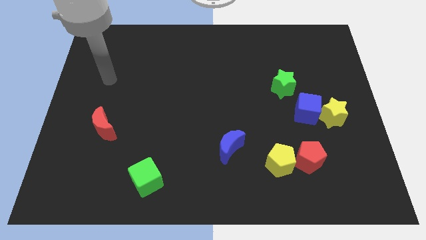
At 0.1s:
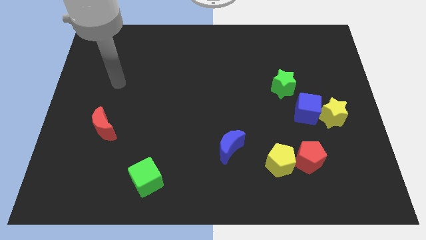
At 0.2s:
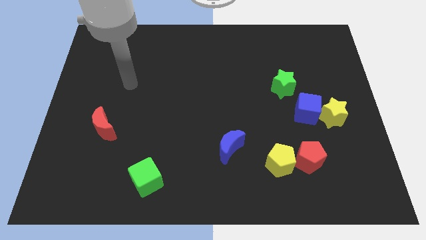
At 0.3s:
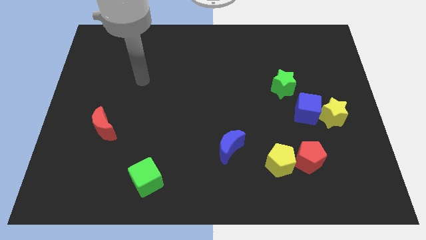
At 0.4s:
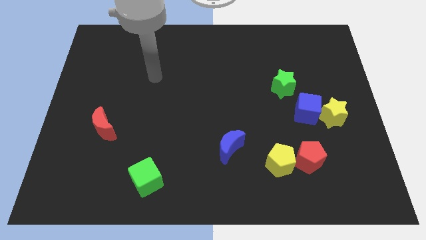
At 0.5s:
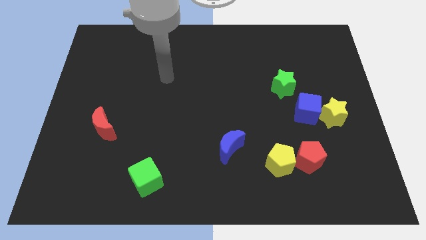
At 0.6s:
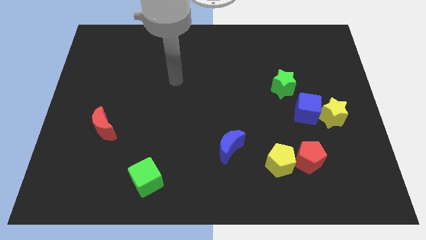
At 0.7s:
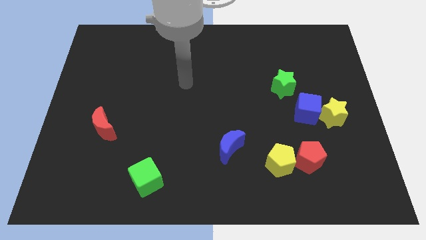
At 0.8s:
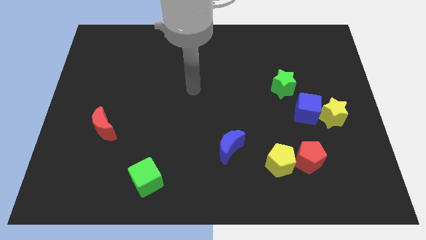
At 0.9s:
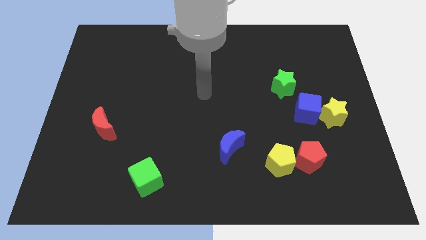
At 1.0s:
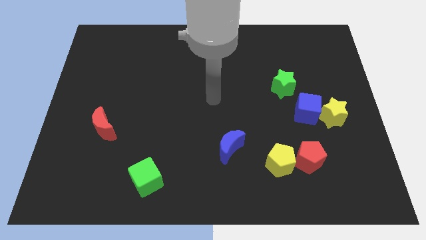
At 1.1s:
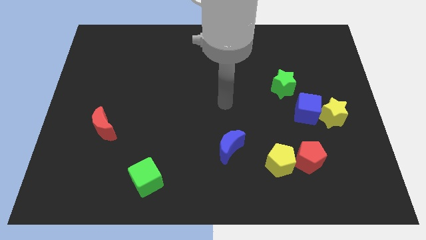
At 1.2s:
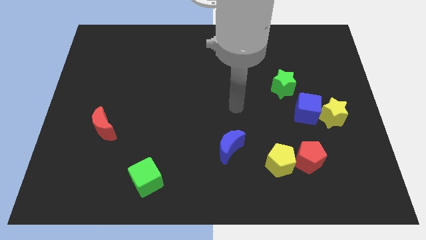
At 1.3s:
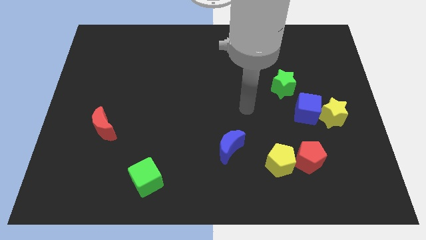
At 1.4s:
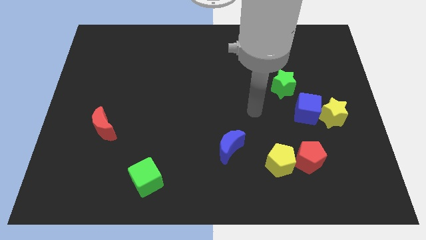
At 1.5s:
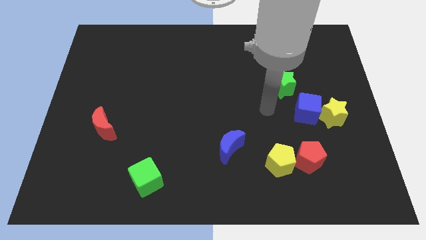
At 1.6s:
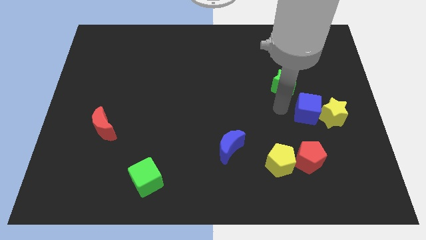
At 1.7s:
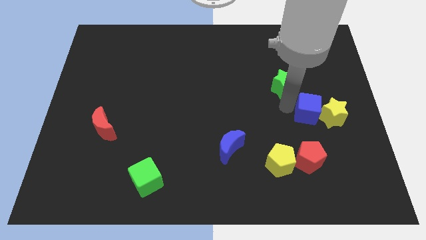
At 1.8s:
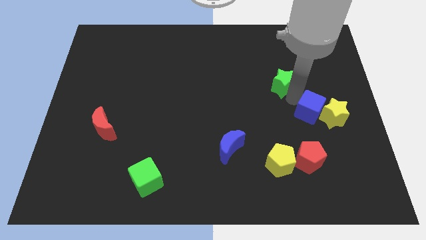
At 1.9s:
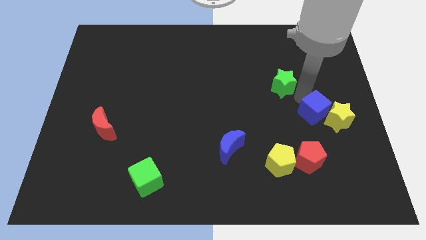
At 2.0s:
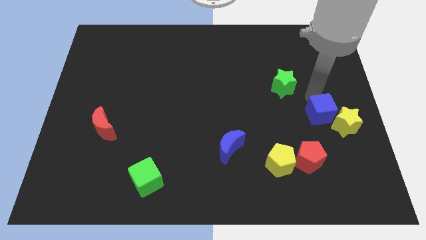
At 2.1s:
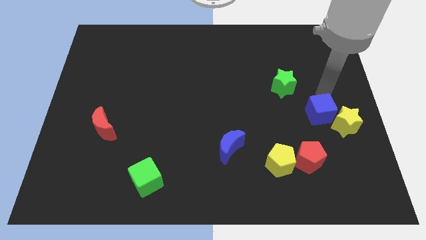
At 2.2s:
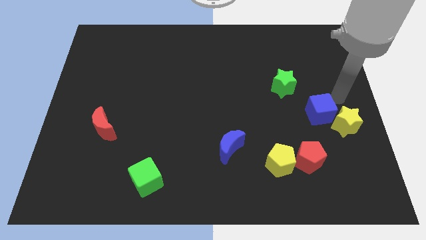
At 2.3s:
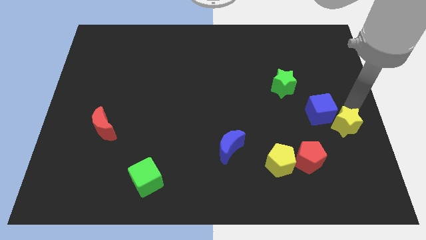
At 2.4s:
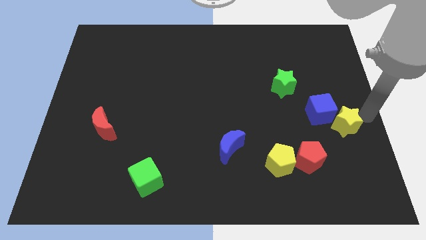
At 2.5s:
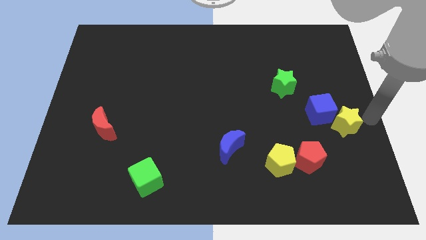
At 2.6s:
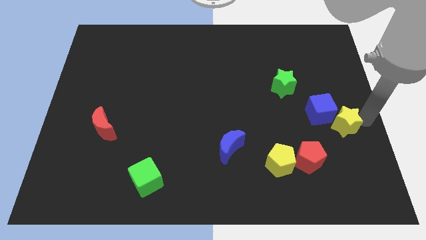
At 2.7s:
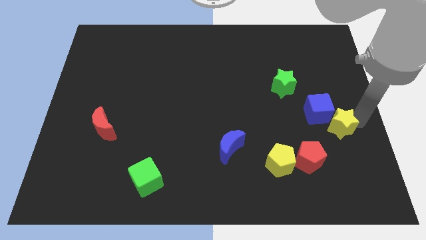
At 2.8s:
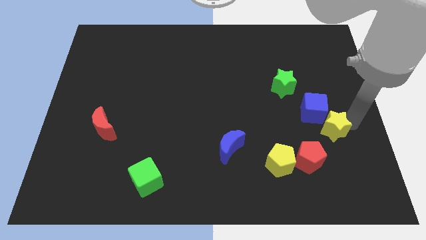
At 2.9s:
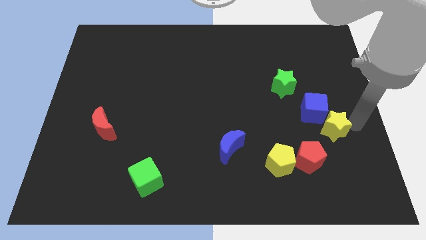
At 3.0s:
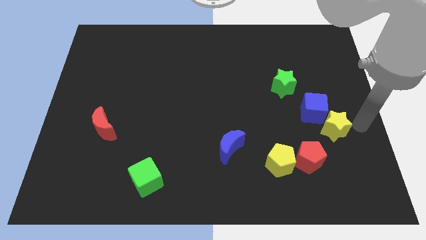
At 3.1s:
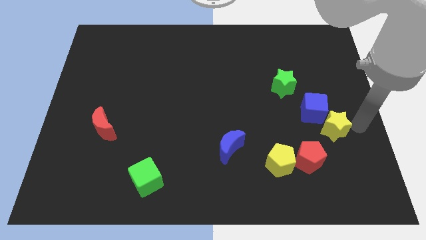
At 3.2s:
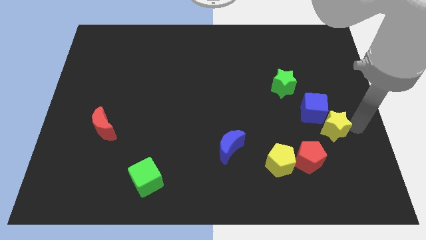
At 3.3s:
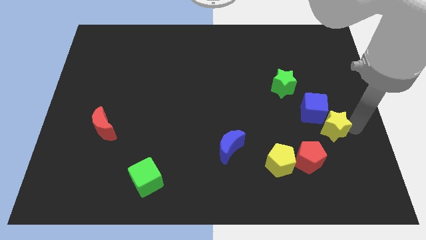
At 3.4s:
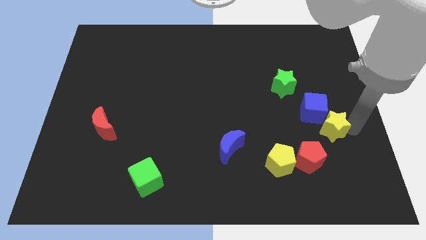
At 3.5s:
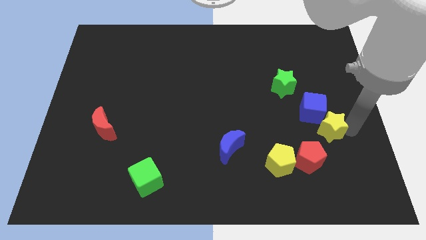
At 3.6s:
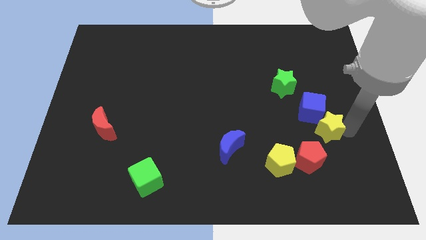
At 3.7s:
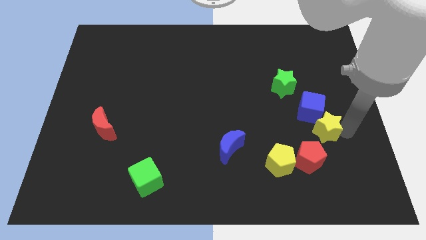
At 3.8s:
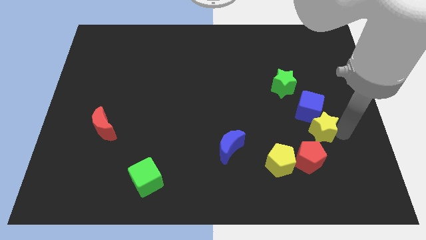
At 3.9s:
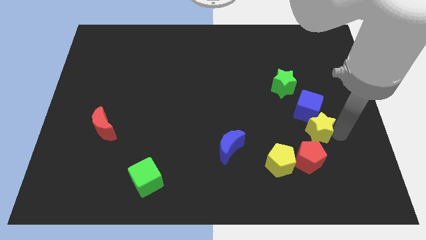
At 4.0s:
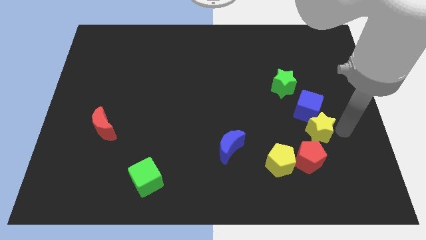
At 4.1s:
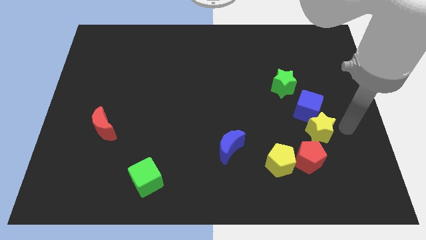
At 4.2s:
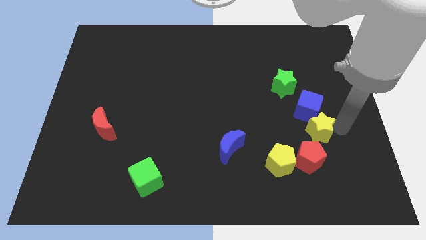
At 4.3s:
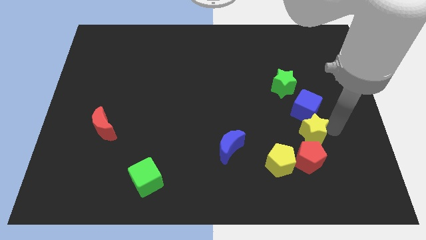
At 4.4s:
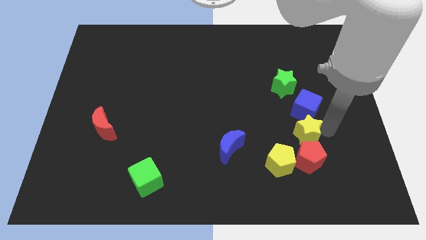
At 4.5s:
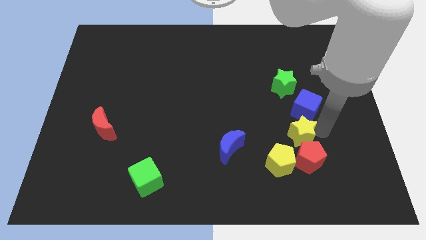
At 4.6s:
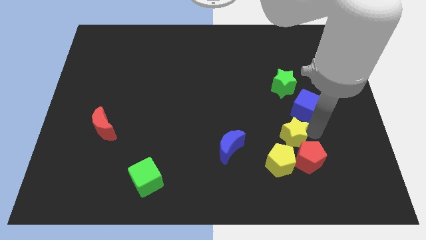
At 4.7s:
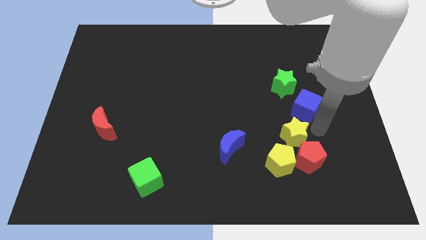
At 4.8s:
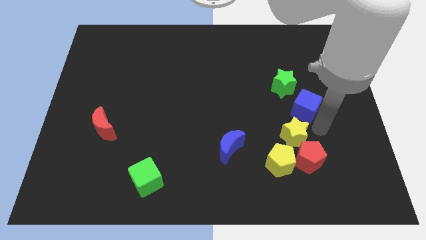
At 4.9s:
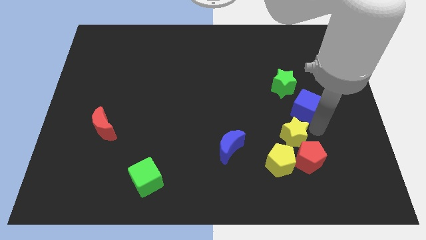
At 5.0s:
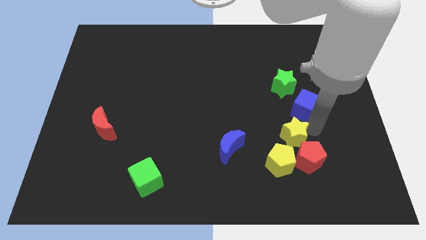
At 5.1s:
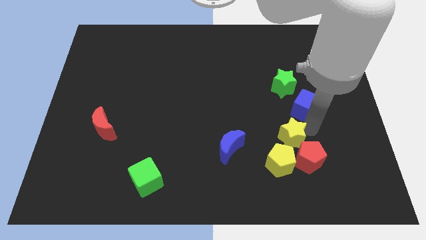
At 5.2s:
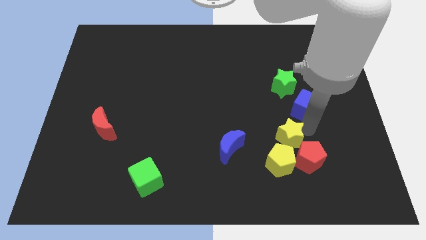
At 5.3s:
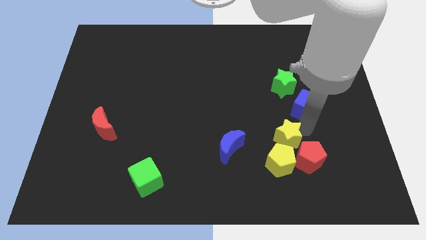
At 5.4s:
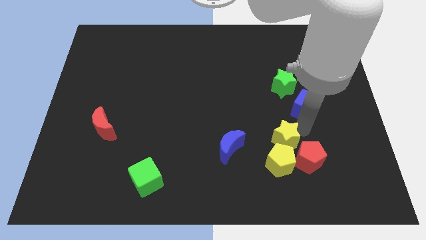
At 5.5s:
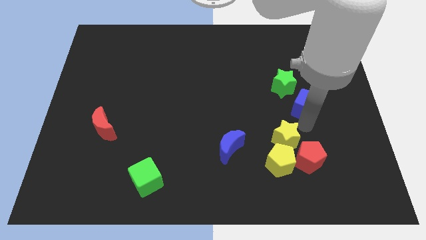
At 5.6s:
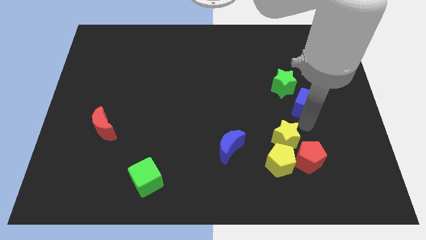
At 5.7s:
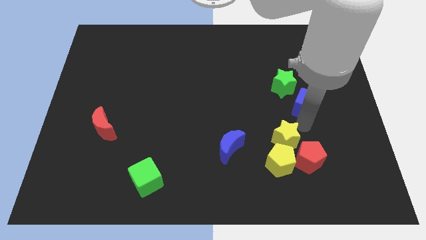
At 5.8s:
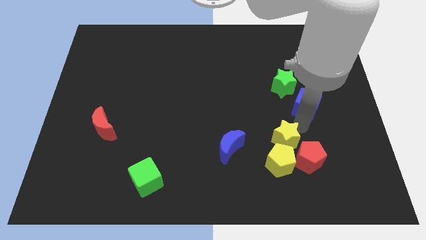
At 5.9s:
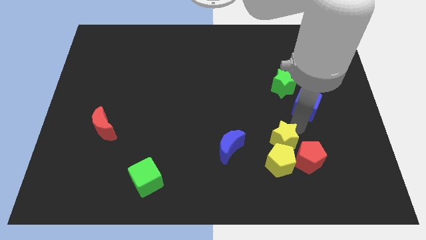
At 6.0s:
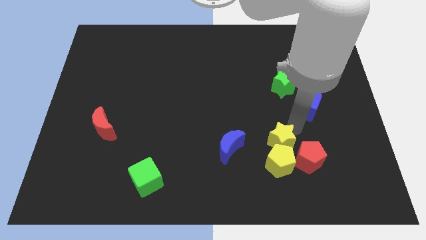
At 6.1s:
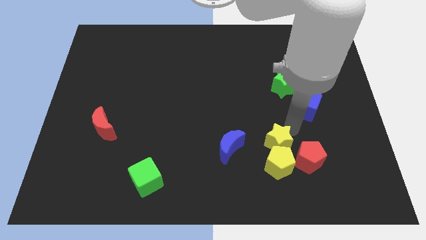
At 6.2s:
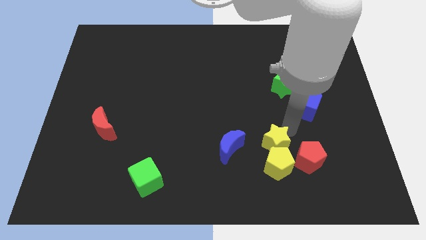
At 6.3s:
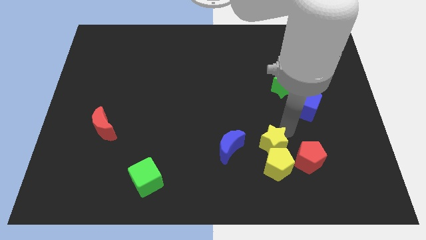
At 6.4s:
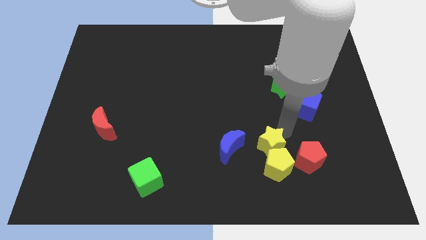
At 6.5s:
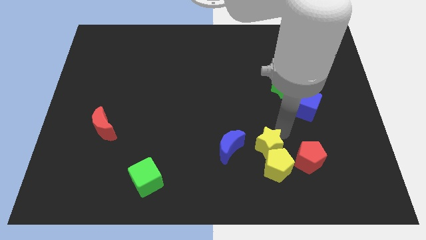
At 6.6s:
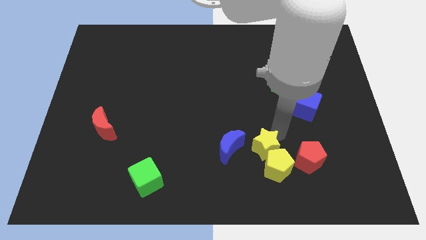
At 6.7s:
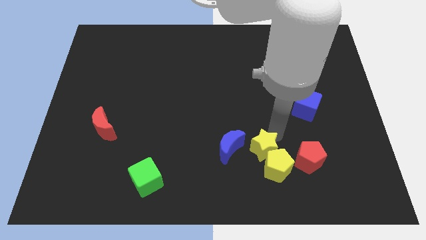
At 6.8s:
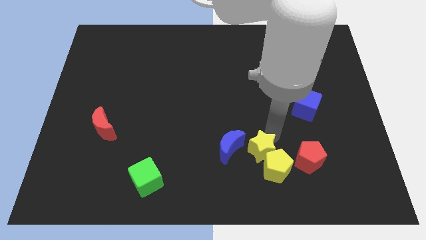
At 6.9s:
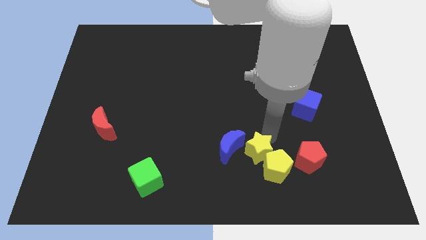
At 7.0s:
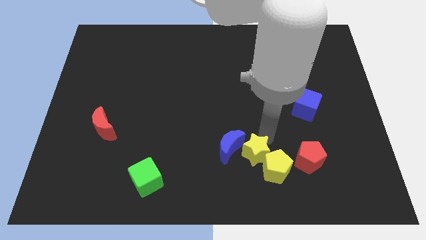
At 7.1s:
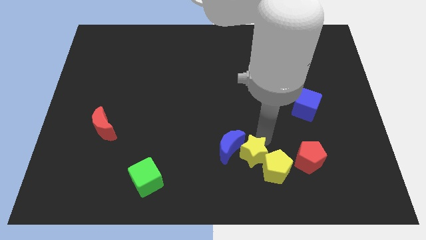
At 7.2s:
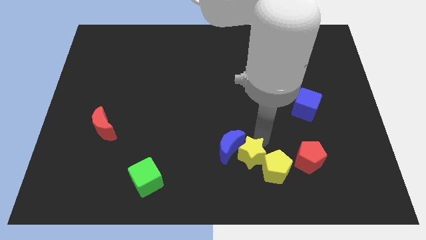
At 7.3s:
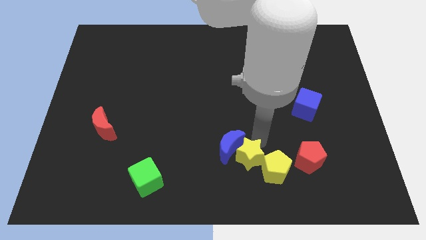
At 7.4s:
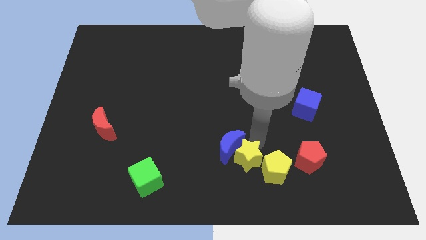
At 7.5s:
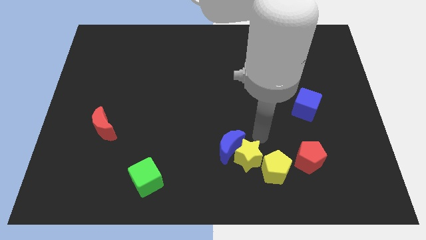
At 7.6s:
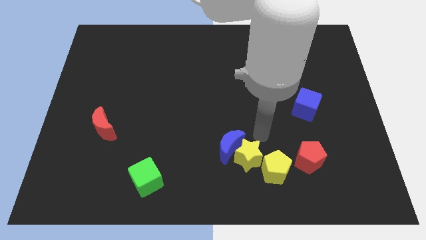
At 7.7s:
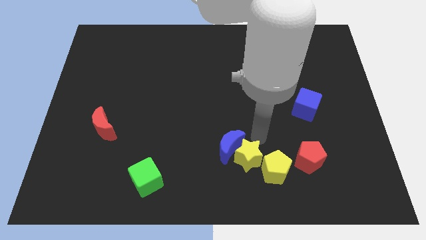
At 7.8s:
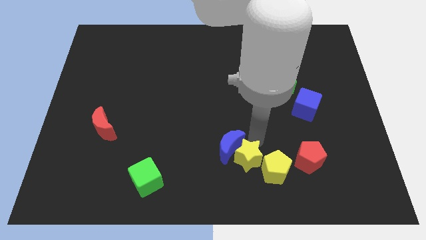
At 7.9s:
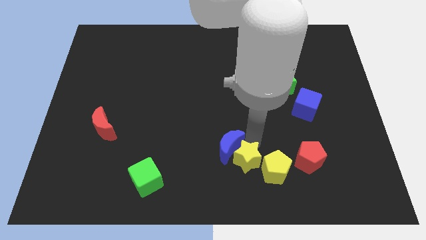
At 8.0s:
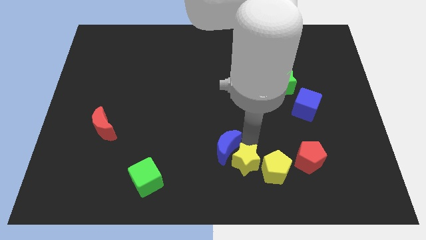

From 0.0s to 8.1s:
move the yellow star to the bottom
